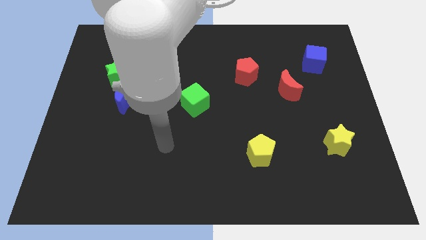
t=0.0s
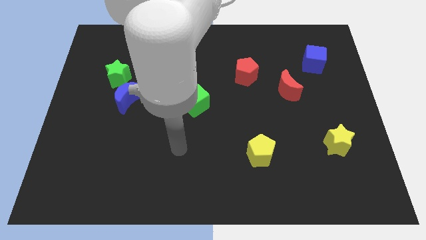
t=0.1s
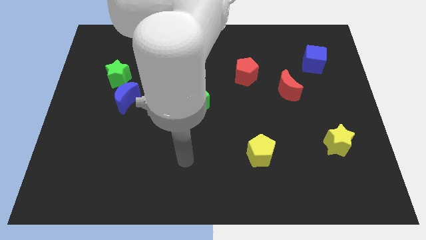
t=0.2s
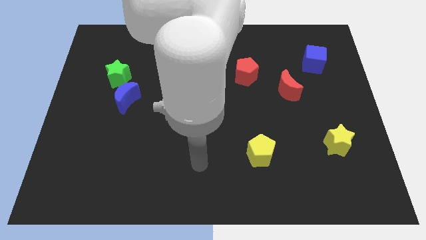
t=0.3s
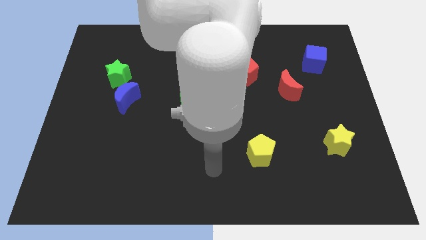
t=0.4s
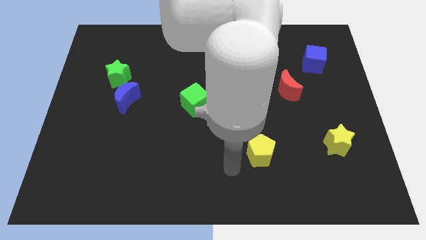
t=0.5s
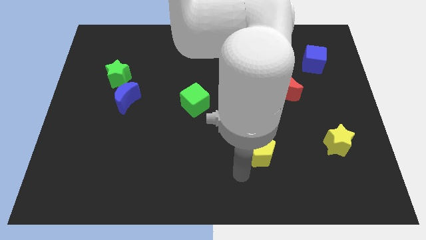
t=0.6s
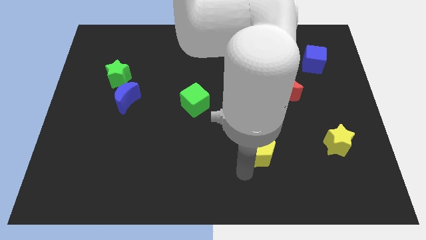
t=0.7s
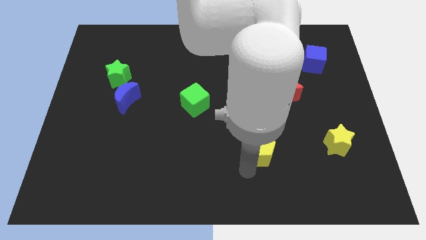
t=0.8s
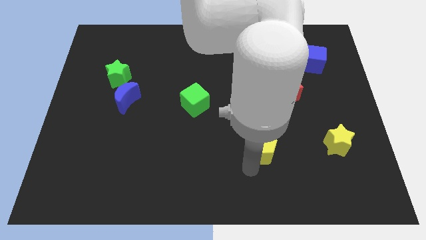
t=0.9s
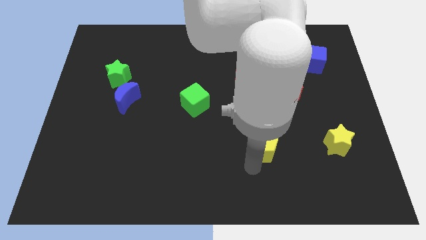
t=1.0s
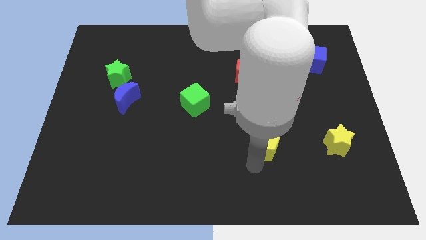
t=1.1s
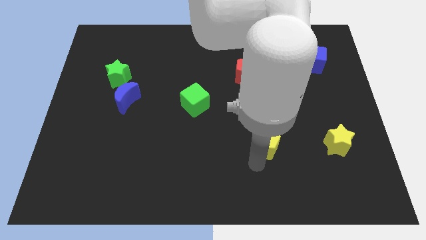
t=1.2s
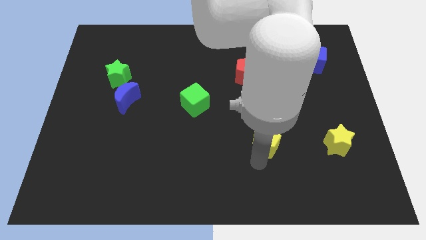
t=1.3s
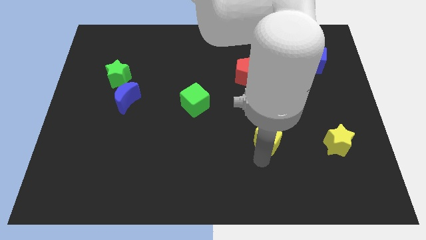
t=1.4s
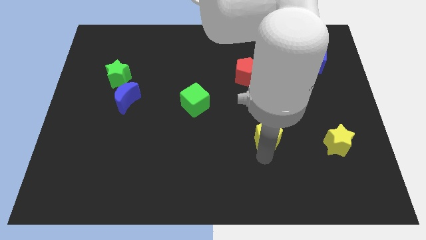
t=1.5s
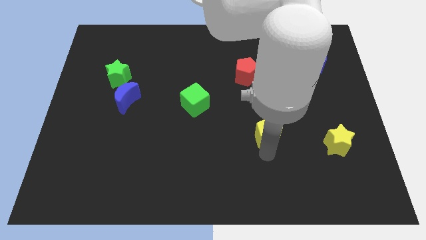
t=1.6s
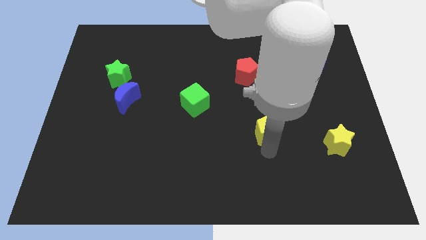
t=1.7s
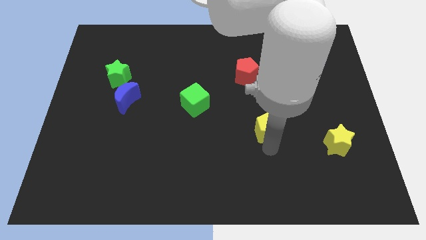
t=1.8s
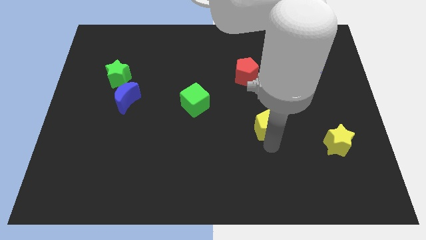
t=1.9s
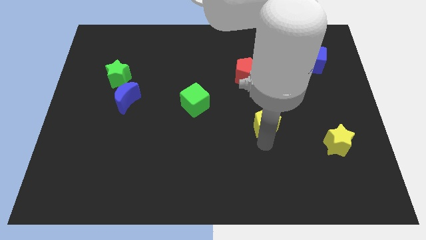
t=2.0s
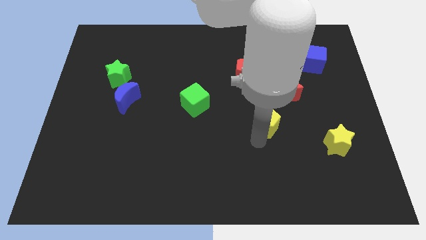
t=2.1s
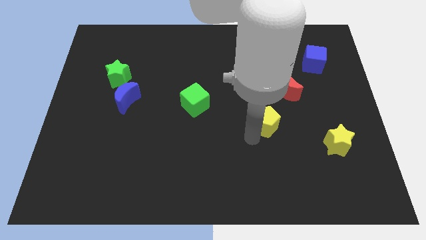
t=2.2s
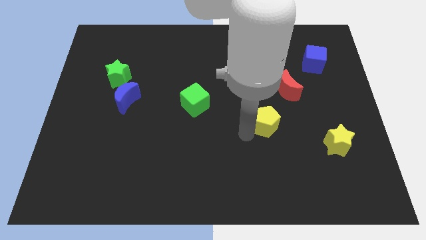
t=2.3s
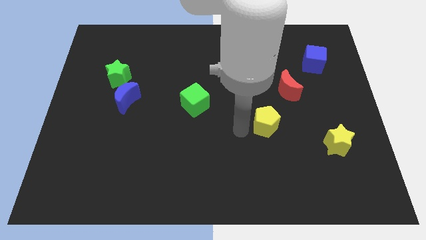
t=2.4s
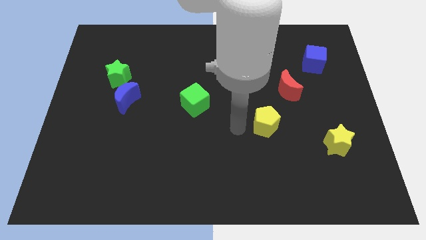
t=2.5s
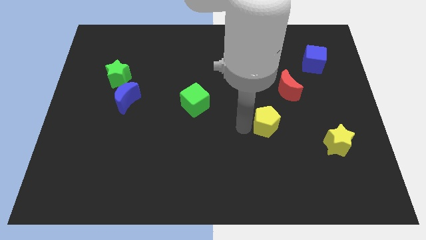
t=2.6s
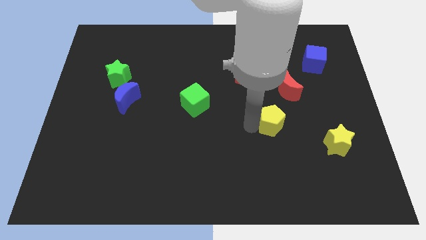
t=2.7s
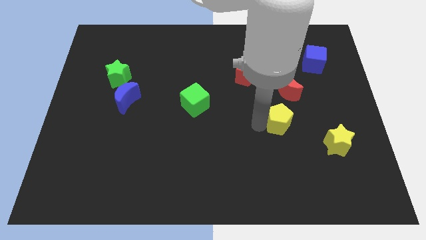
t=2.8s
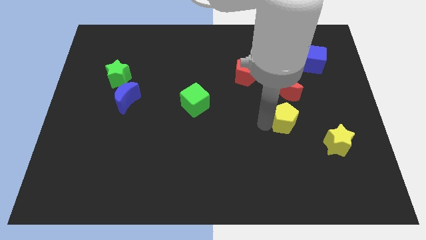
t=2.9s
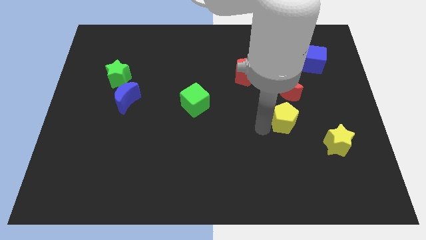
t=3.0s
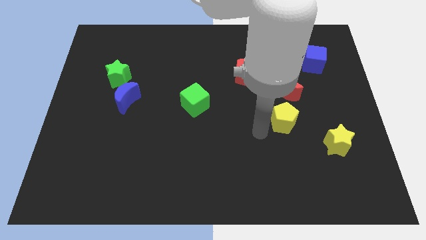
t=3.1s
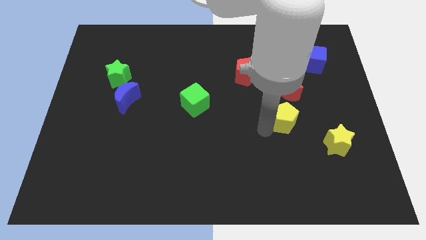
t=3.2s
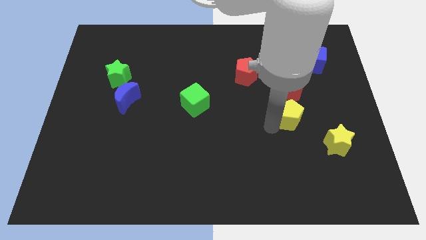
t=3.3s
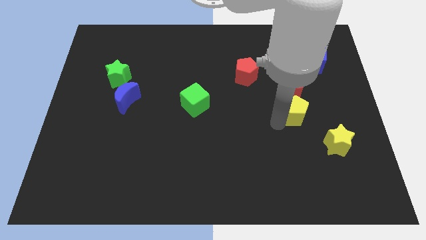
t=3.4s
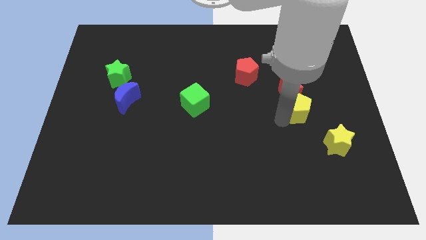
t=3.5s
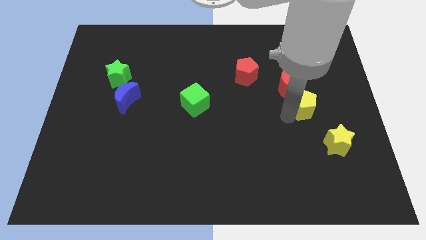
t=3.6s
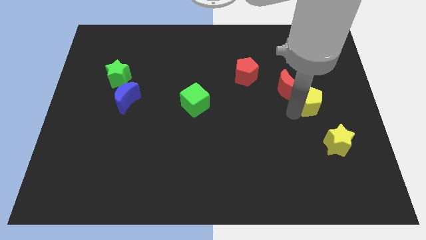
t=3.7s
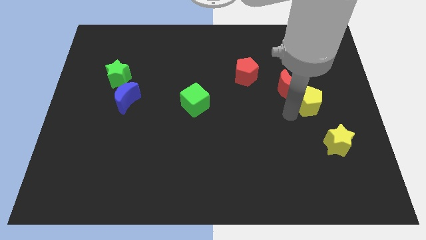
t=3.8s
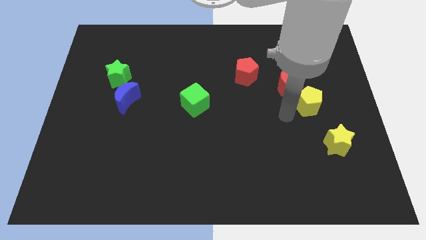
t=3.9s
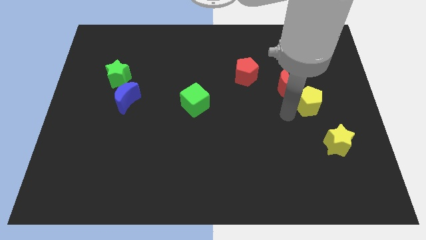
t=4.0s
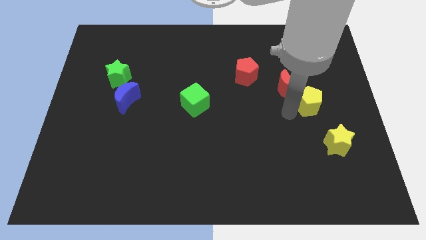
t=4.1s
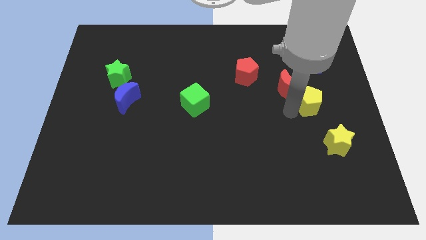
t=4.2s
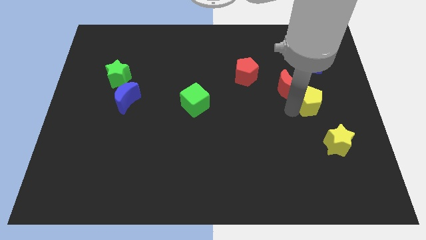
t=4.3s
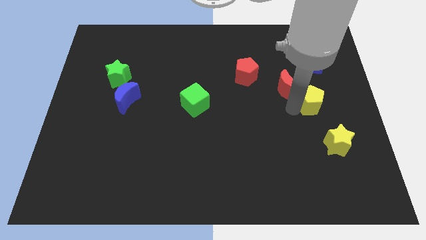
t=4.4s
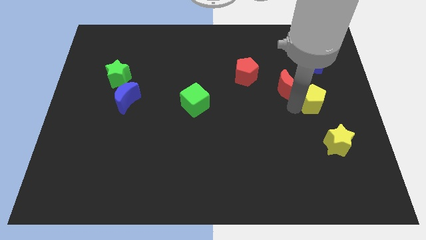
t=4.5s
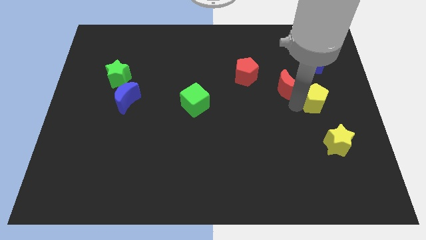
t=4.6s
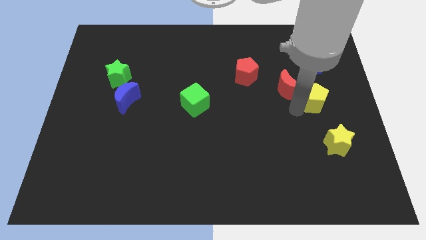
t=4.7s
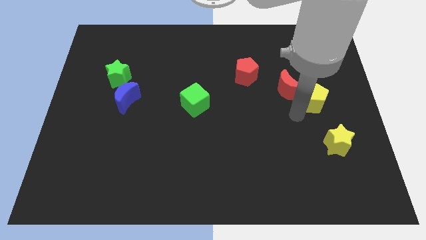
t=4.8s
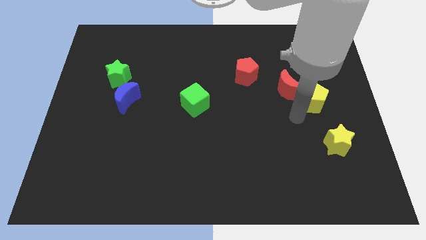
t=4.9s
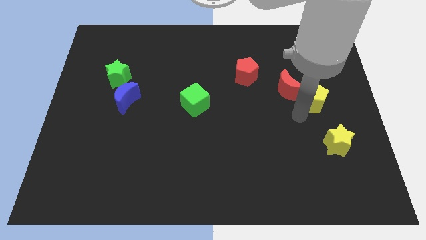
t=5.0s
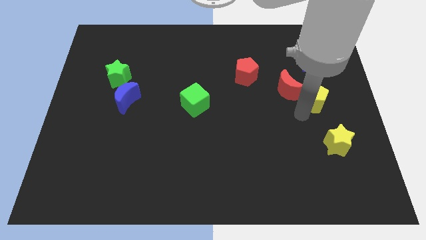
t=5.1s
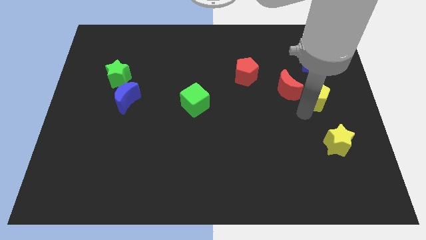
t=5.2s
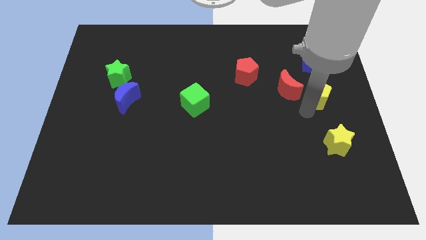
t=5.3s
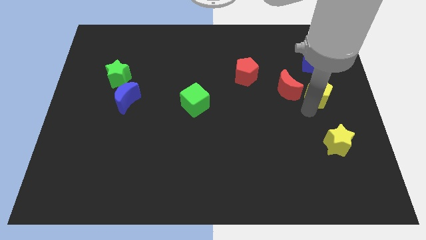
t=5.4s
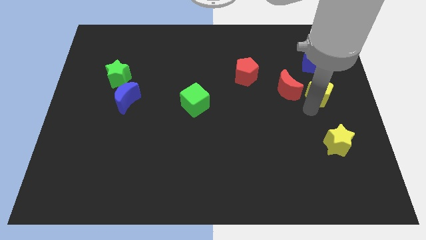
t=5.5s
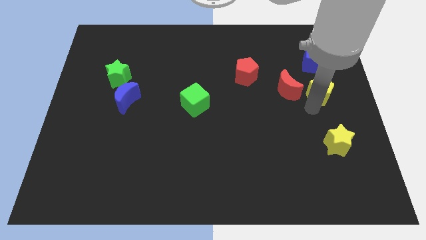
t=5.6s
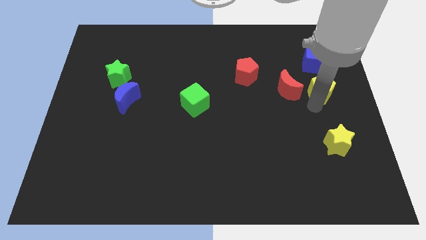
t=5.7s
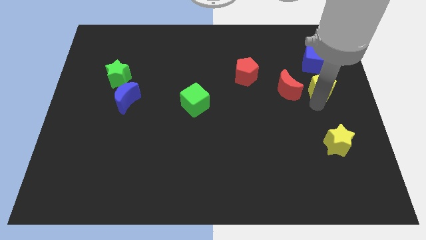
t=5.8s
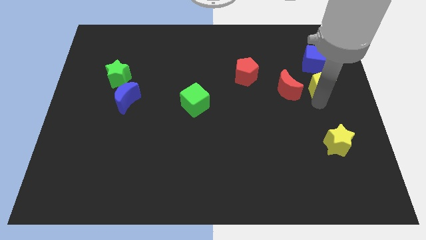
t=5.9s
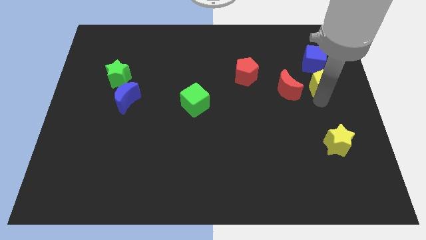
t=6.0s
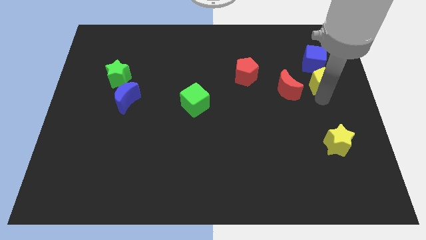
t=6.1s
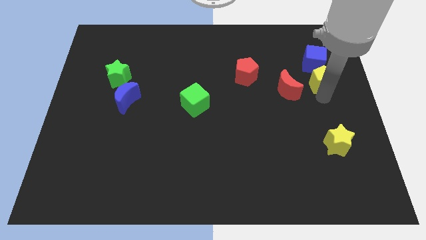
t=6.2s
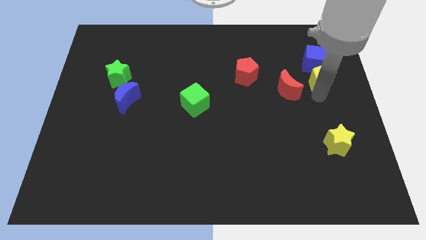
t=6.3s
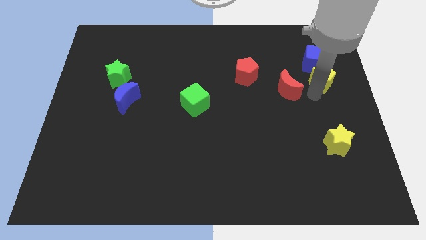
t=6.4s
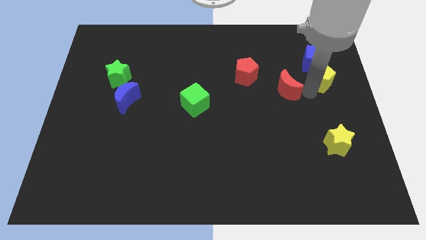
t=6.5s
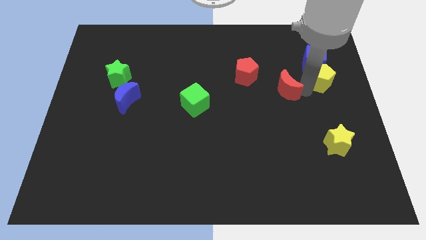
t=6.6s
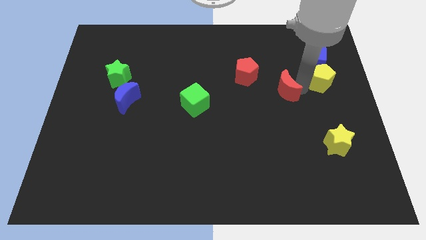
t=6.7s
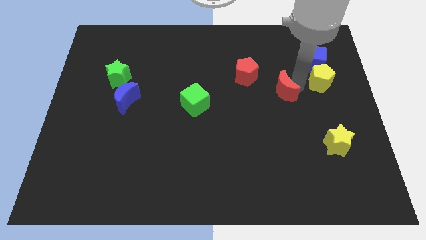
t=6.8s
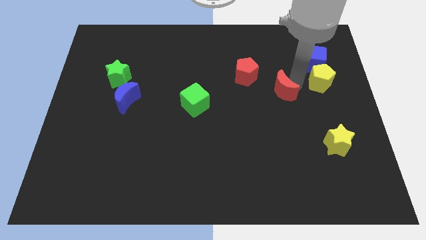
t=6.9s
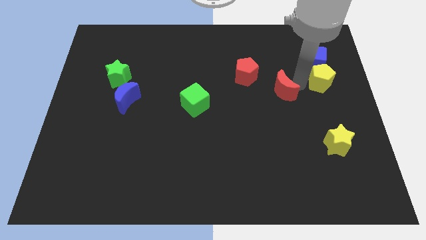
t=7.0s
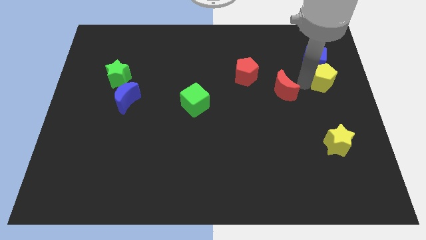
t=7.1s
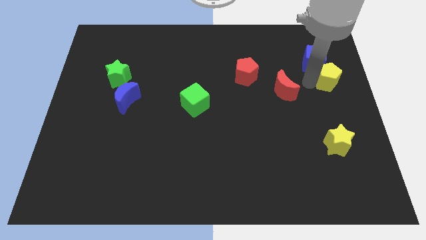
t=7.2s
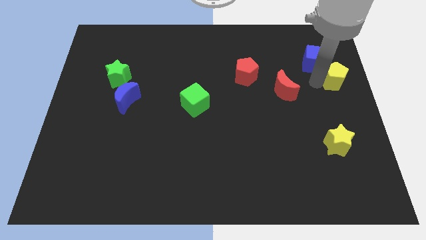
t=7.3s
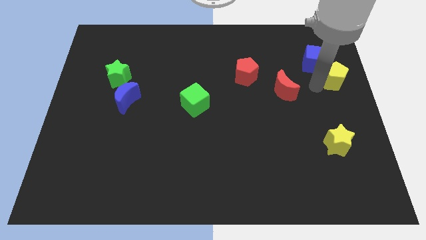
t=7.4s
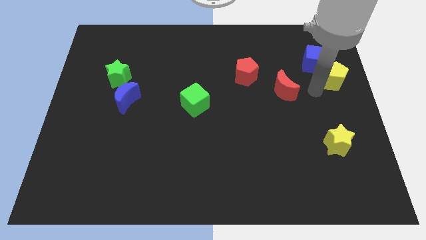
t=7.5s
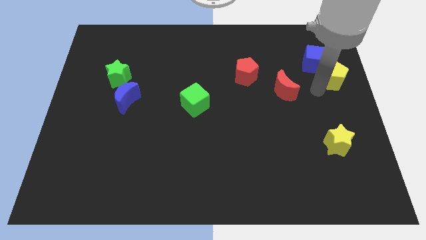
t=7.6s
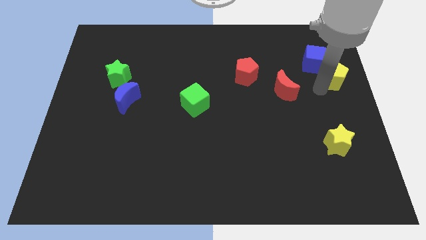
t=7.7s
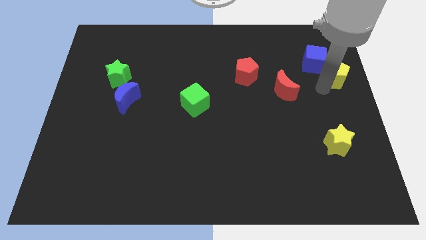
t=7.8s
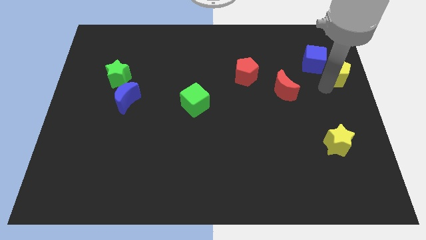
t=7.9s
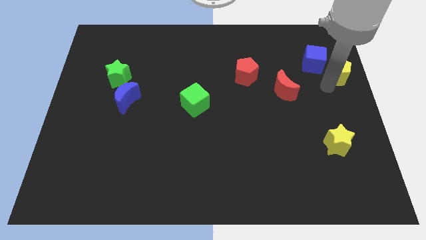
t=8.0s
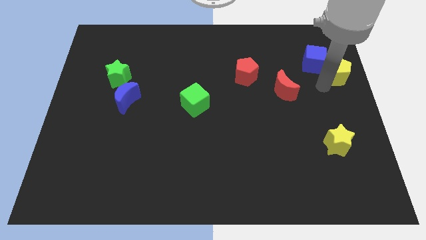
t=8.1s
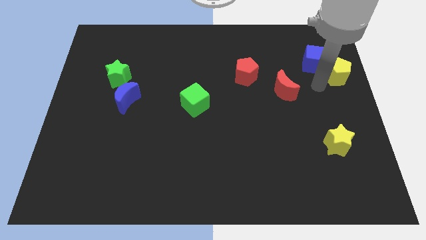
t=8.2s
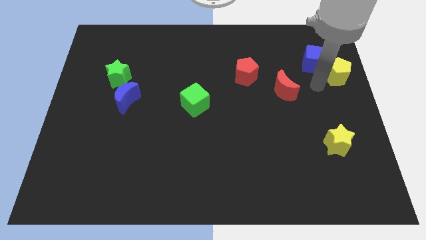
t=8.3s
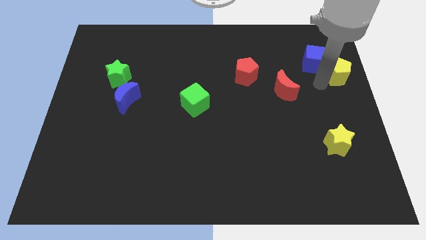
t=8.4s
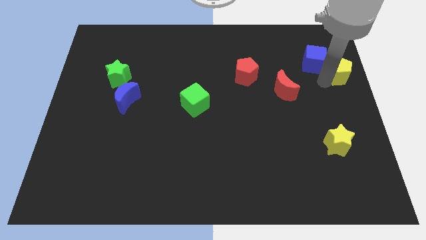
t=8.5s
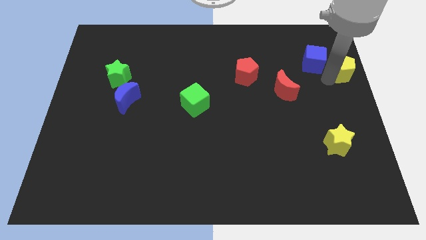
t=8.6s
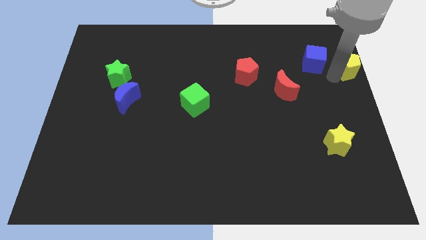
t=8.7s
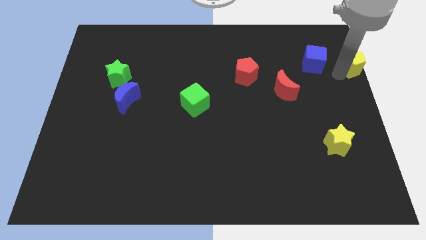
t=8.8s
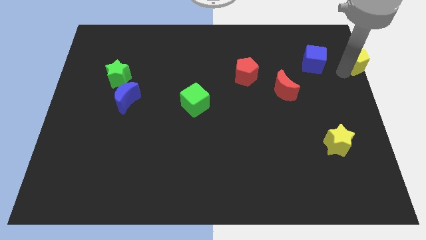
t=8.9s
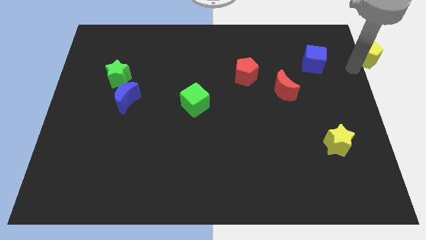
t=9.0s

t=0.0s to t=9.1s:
put the yellow pentagon to the top right corner
